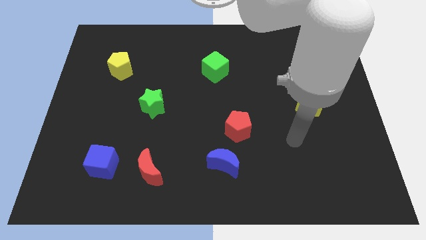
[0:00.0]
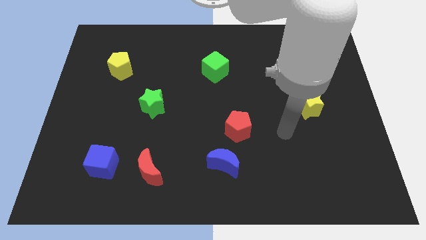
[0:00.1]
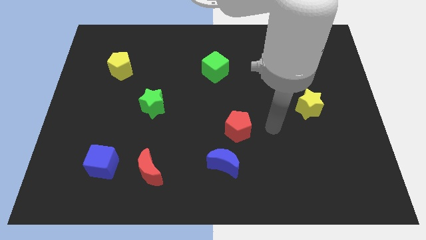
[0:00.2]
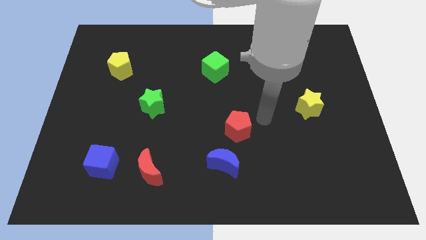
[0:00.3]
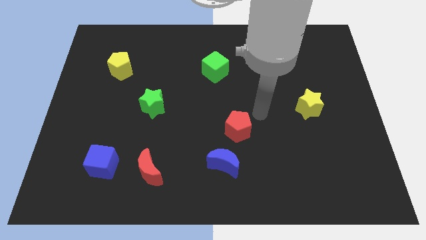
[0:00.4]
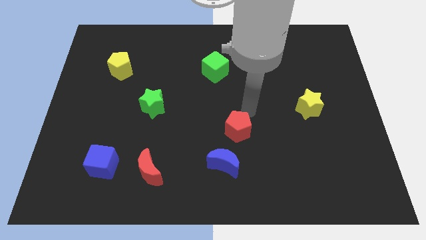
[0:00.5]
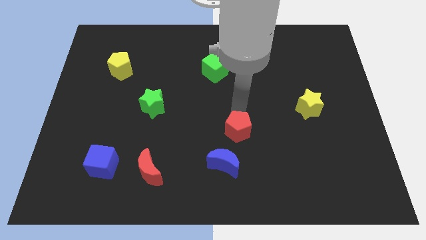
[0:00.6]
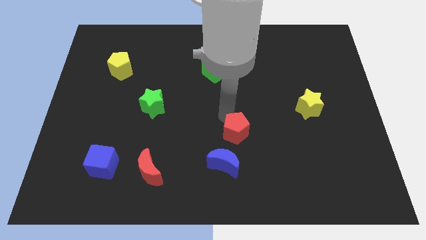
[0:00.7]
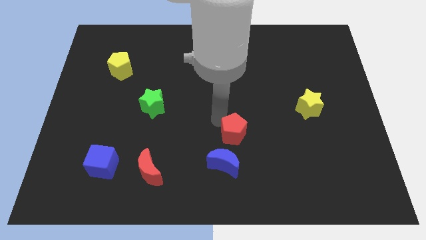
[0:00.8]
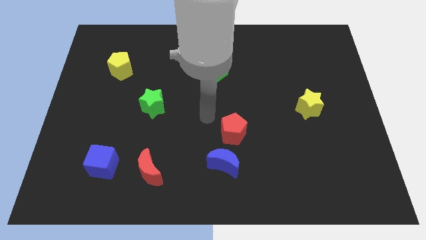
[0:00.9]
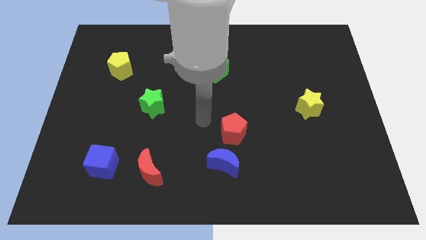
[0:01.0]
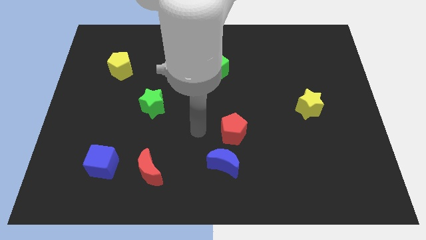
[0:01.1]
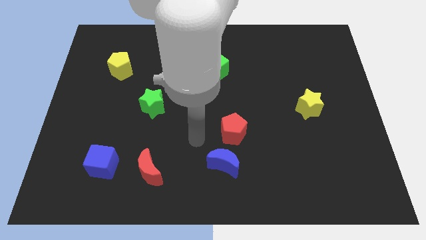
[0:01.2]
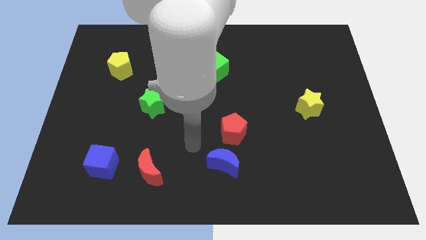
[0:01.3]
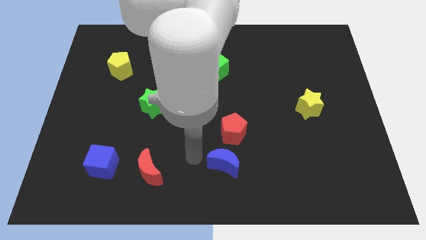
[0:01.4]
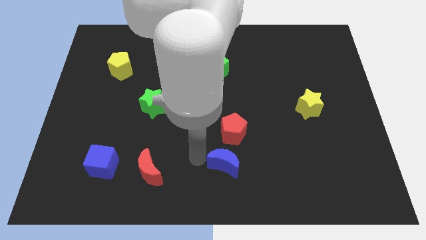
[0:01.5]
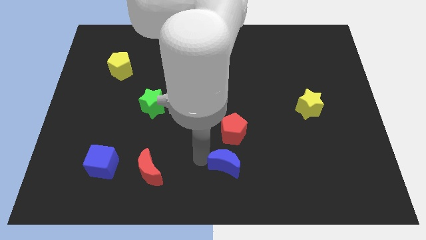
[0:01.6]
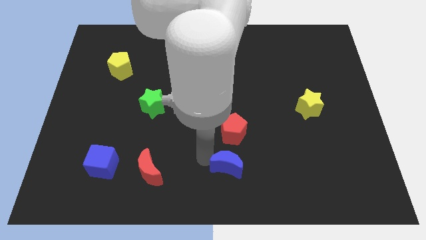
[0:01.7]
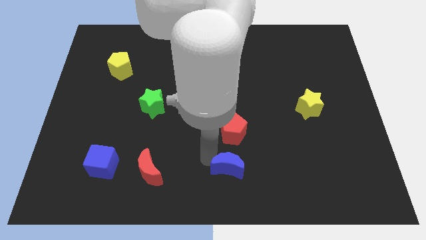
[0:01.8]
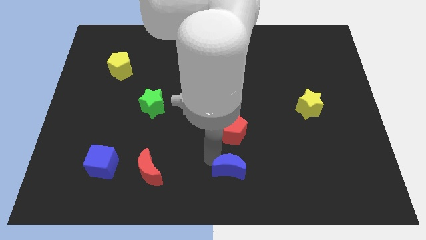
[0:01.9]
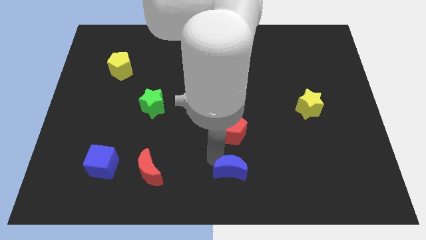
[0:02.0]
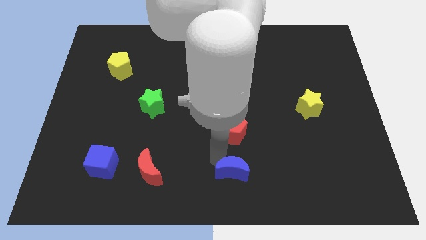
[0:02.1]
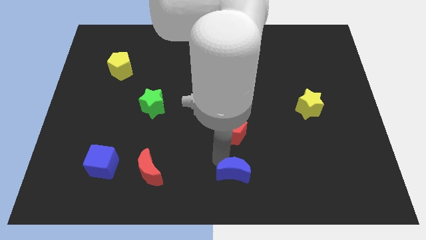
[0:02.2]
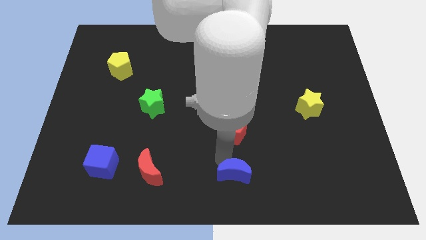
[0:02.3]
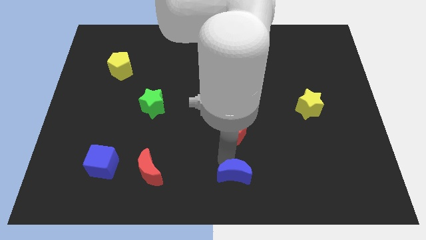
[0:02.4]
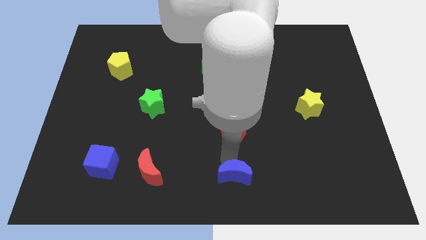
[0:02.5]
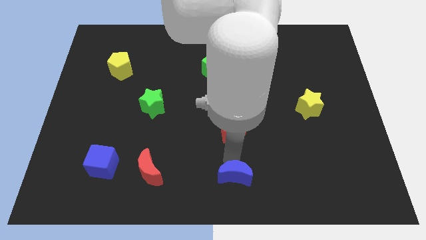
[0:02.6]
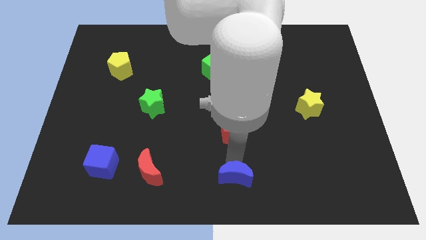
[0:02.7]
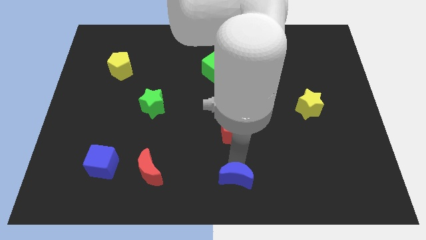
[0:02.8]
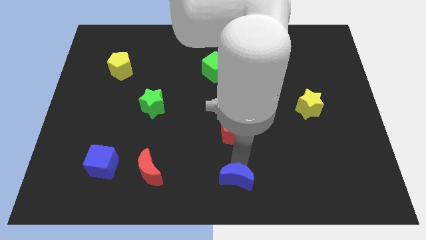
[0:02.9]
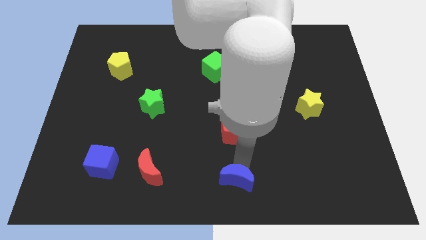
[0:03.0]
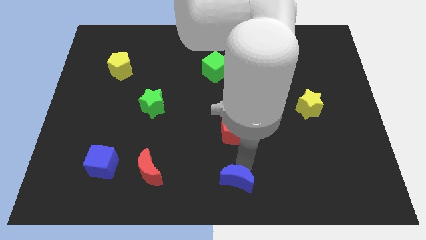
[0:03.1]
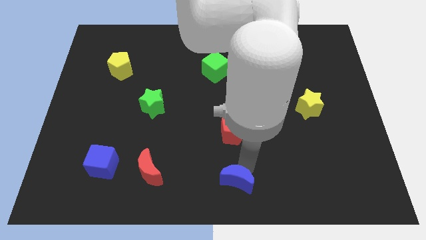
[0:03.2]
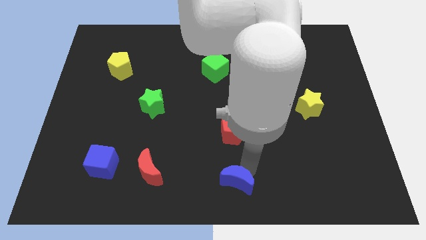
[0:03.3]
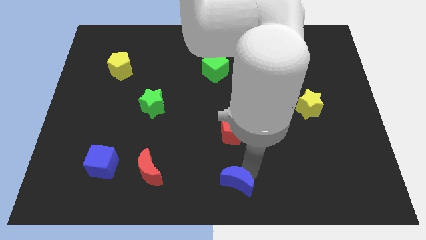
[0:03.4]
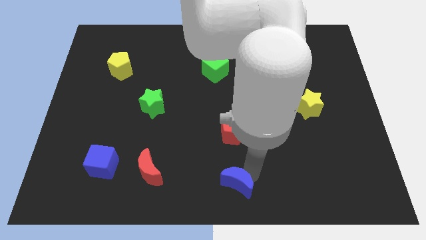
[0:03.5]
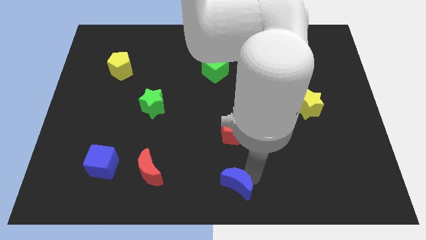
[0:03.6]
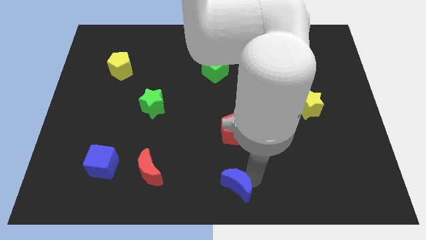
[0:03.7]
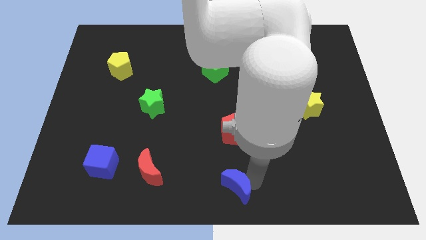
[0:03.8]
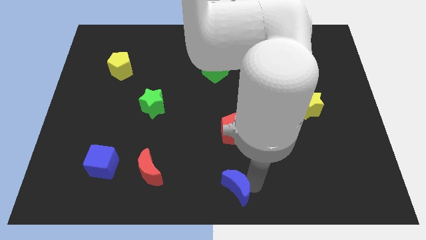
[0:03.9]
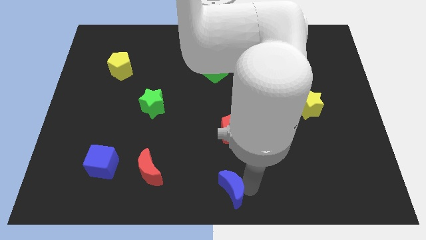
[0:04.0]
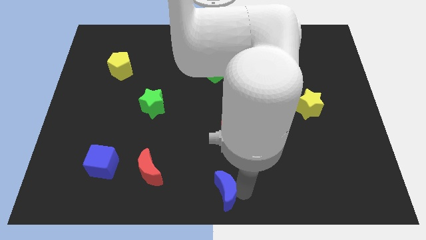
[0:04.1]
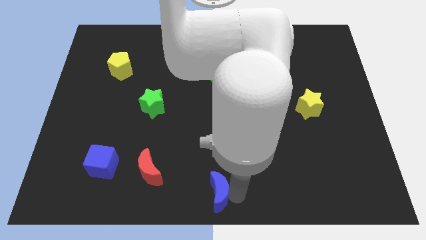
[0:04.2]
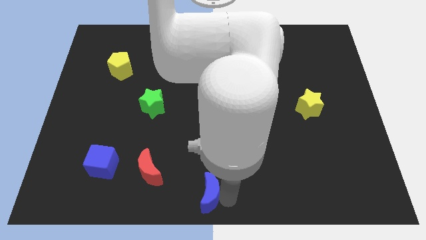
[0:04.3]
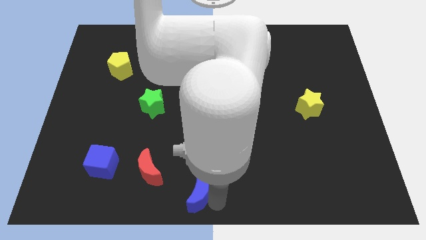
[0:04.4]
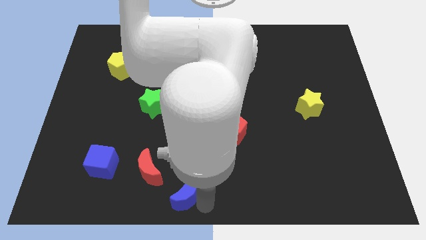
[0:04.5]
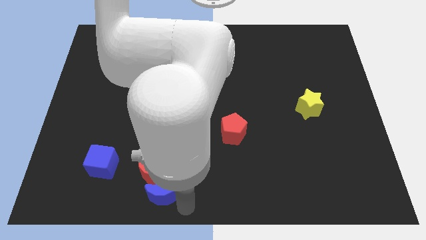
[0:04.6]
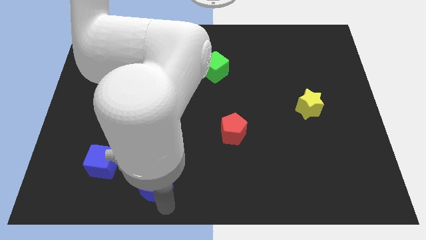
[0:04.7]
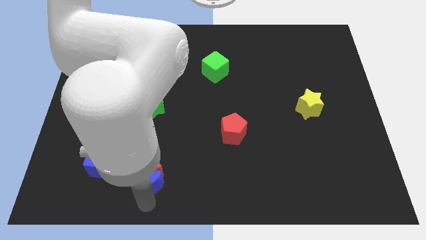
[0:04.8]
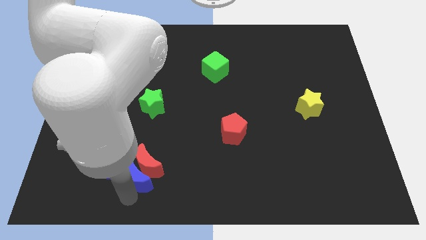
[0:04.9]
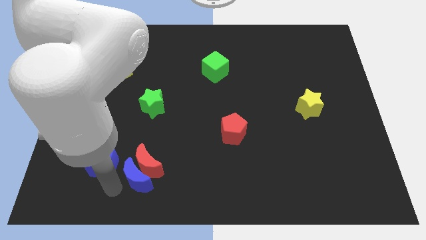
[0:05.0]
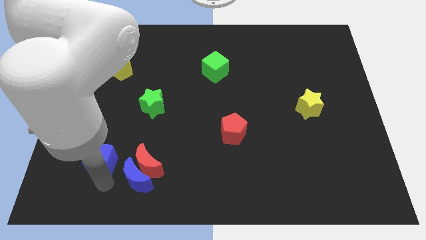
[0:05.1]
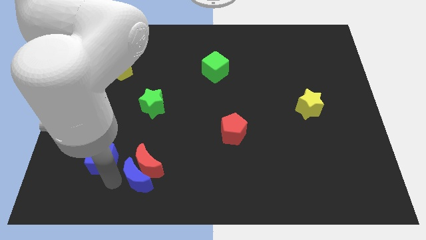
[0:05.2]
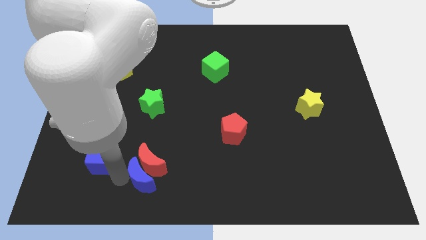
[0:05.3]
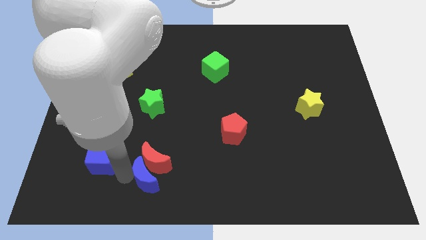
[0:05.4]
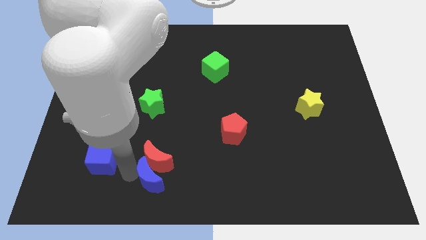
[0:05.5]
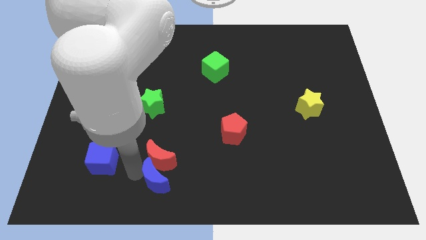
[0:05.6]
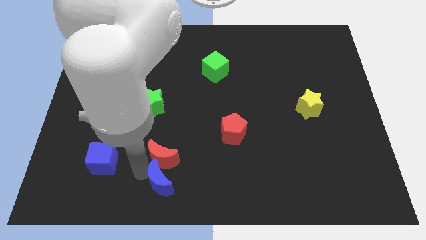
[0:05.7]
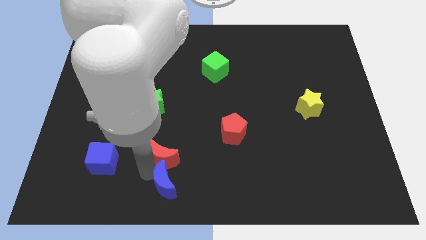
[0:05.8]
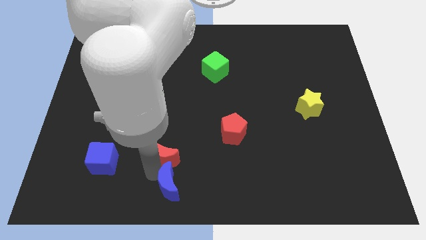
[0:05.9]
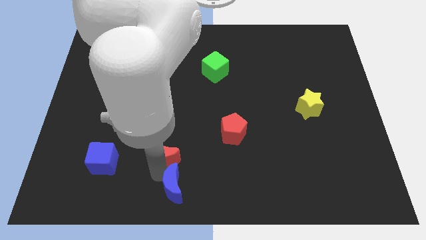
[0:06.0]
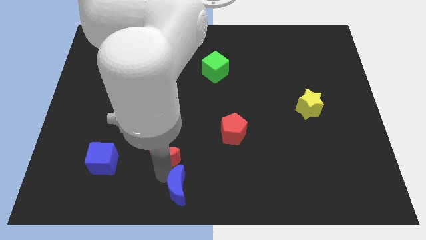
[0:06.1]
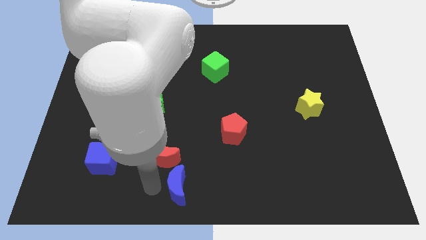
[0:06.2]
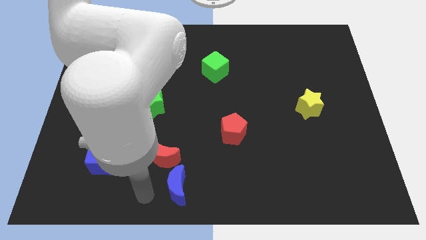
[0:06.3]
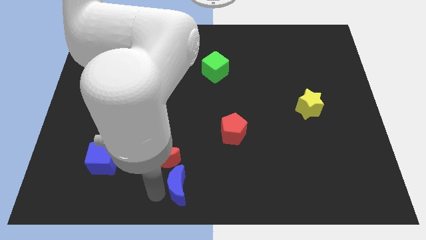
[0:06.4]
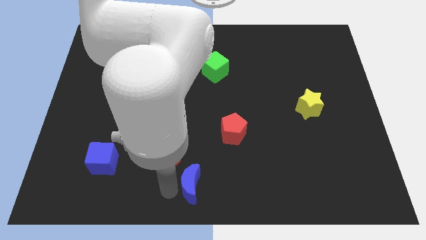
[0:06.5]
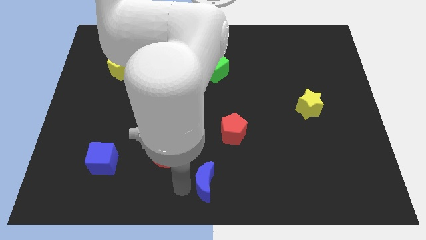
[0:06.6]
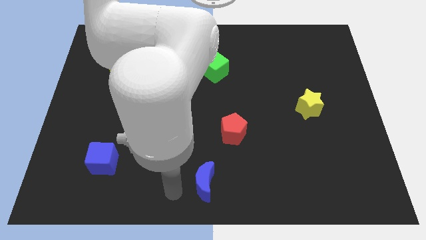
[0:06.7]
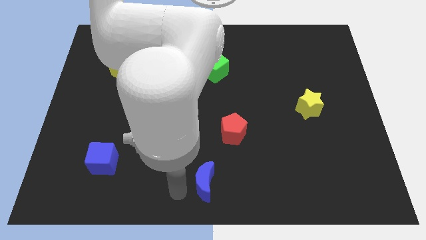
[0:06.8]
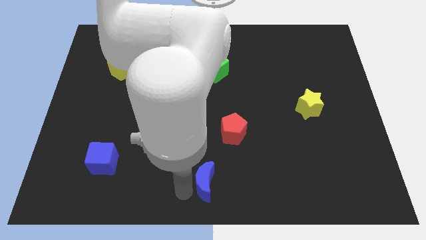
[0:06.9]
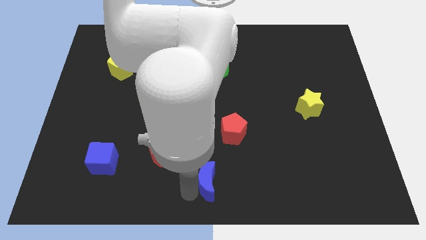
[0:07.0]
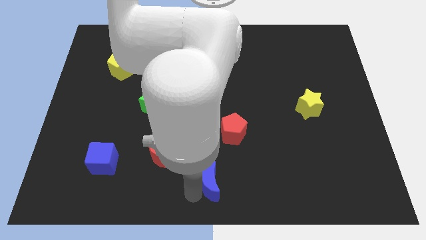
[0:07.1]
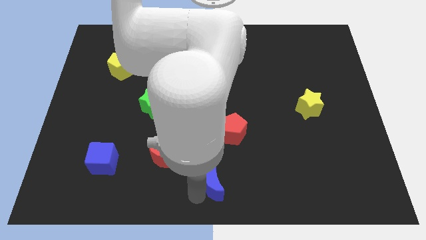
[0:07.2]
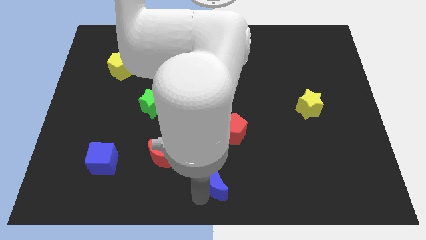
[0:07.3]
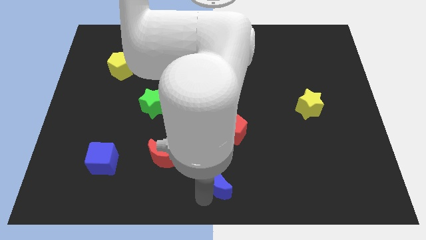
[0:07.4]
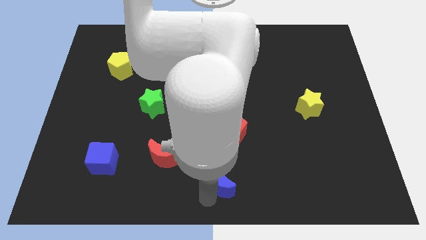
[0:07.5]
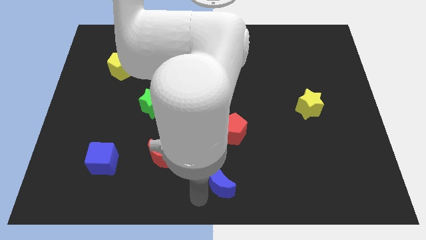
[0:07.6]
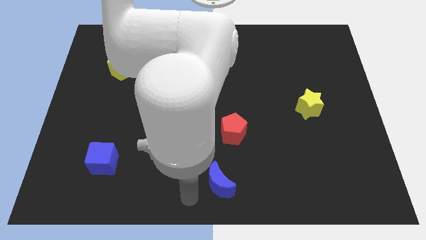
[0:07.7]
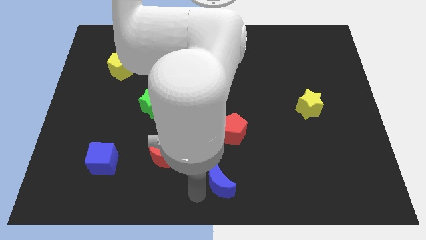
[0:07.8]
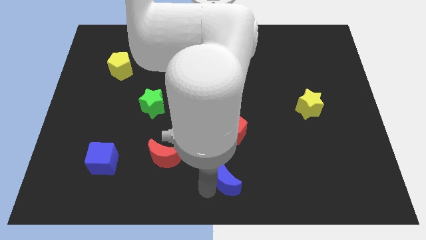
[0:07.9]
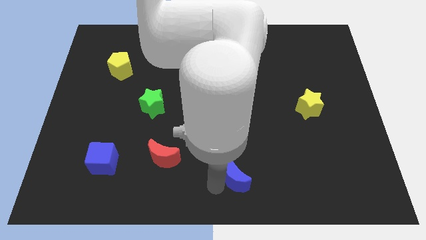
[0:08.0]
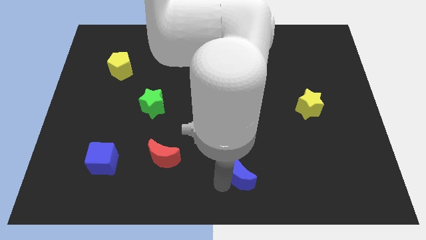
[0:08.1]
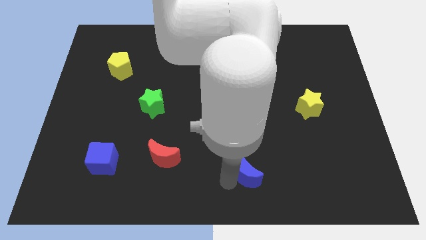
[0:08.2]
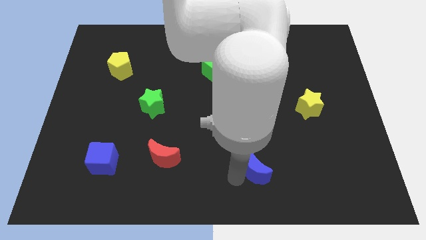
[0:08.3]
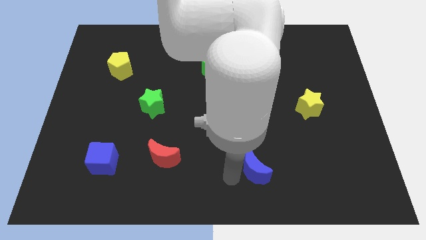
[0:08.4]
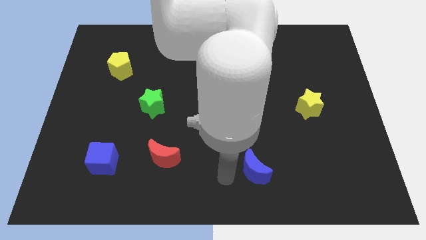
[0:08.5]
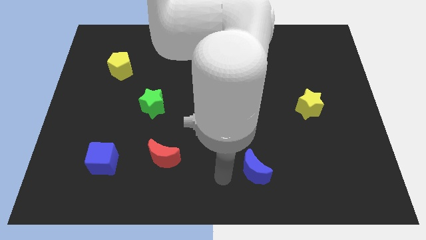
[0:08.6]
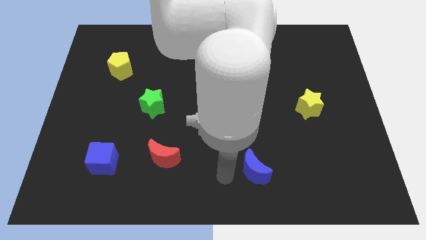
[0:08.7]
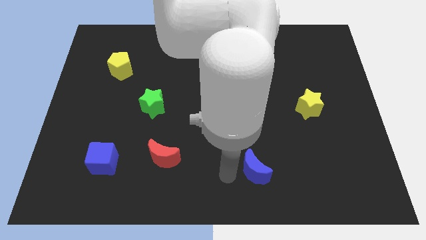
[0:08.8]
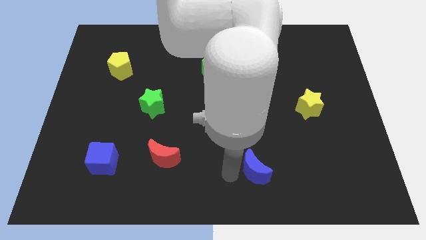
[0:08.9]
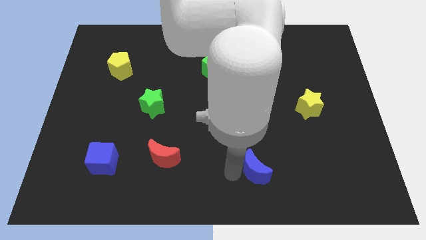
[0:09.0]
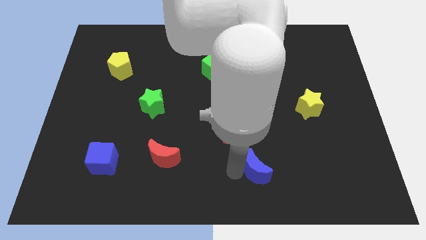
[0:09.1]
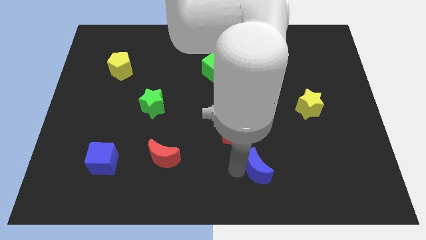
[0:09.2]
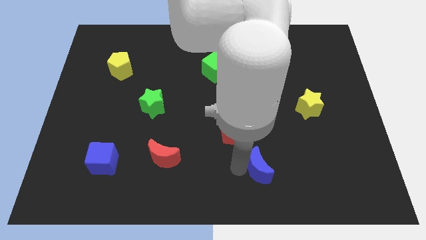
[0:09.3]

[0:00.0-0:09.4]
slightly push the blue moon right
